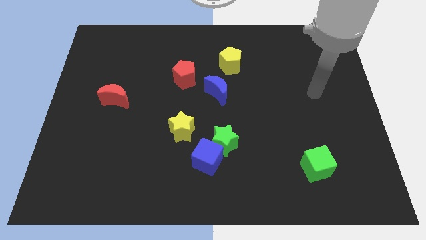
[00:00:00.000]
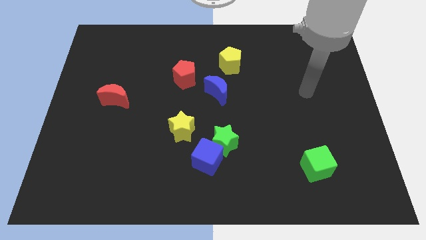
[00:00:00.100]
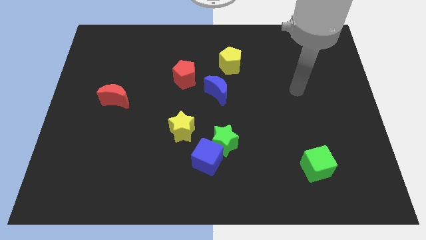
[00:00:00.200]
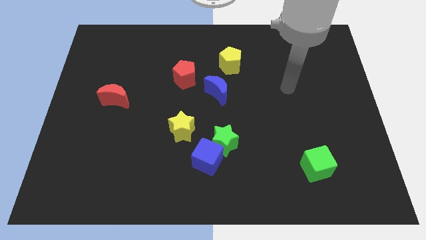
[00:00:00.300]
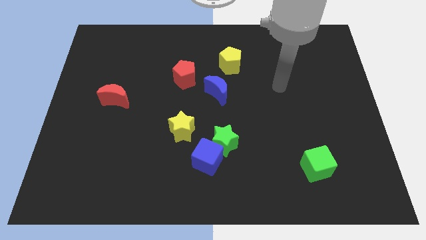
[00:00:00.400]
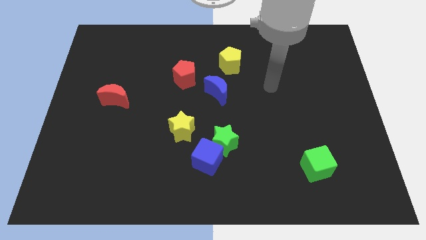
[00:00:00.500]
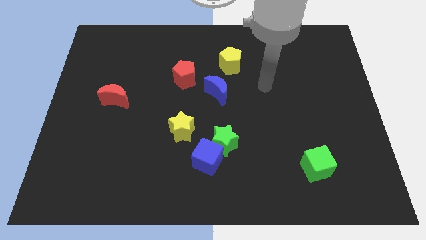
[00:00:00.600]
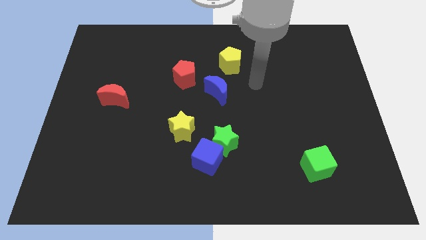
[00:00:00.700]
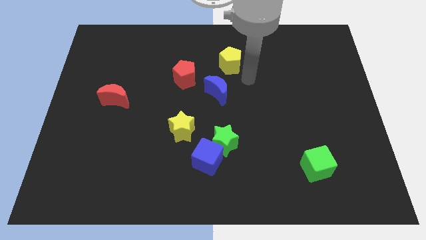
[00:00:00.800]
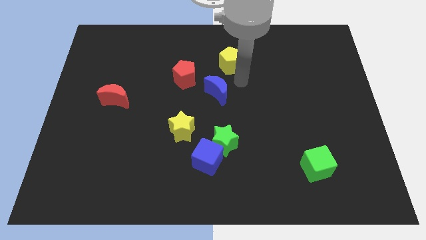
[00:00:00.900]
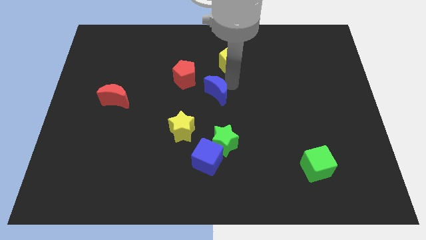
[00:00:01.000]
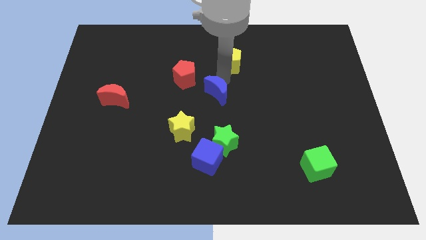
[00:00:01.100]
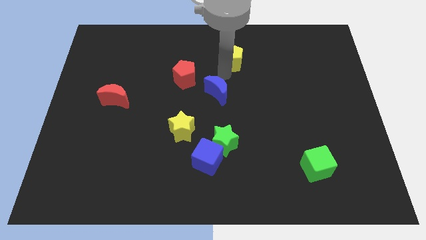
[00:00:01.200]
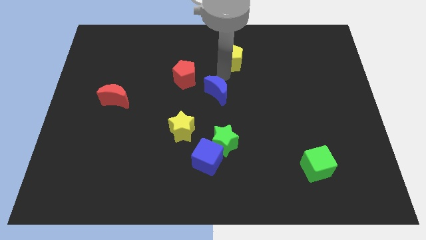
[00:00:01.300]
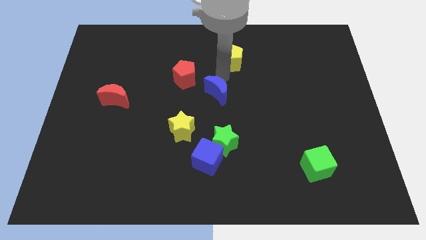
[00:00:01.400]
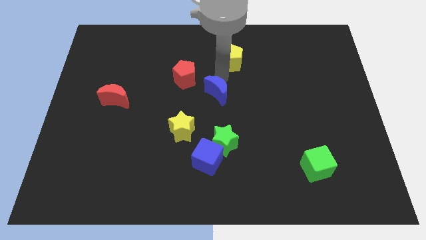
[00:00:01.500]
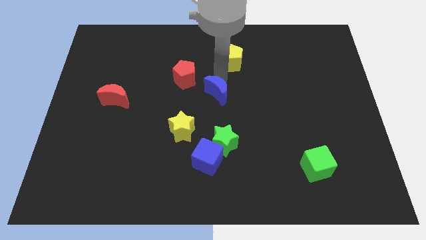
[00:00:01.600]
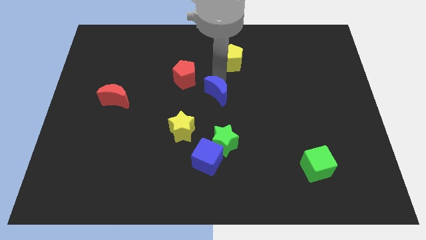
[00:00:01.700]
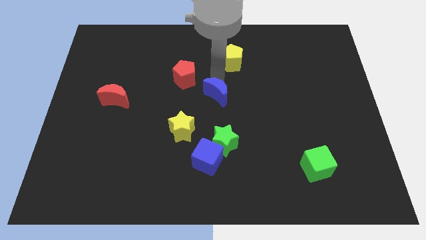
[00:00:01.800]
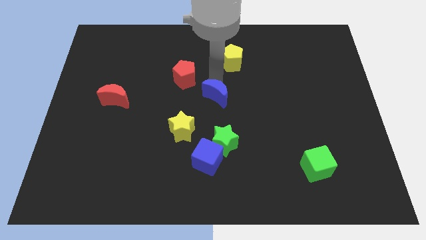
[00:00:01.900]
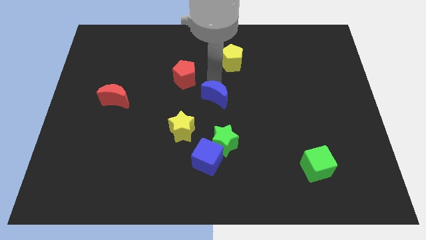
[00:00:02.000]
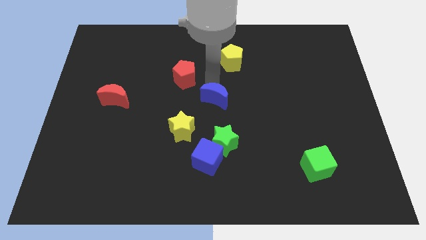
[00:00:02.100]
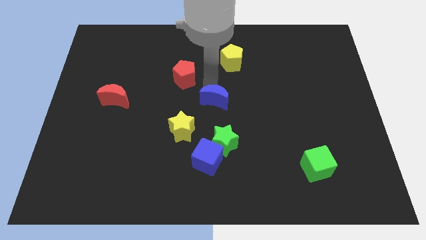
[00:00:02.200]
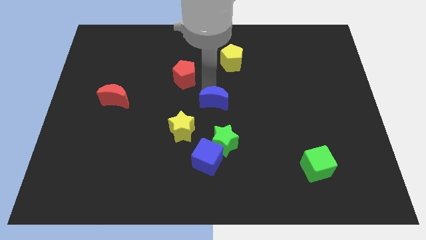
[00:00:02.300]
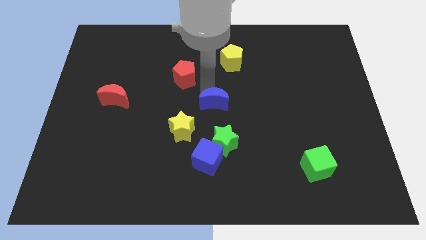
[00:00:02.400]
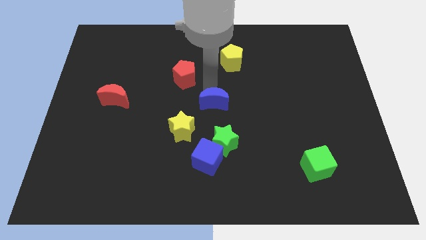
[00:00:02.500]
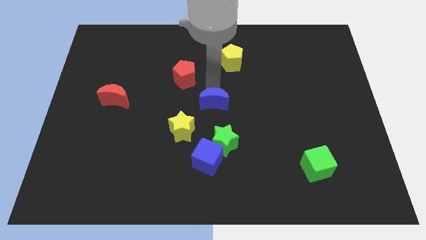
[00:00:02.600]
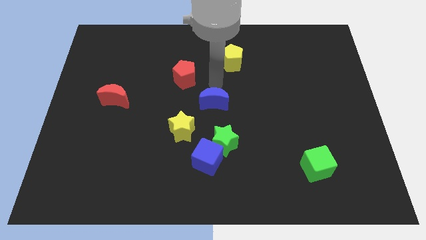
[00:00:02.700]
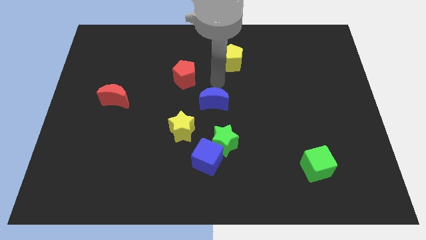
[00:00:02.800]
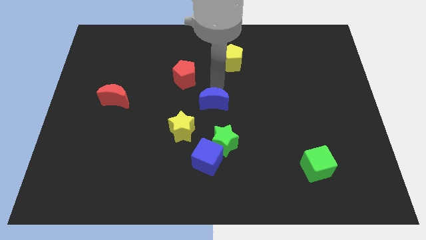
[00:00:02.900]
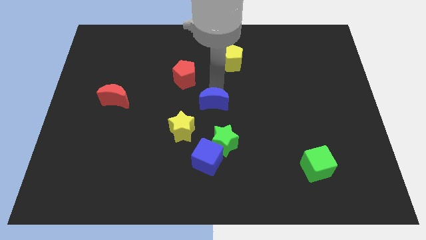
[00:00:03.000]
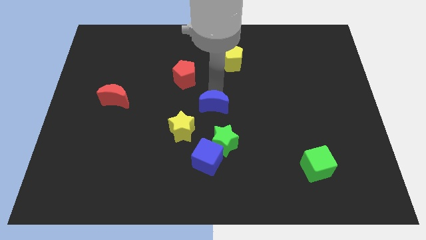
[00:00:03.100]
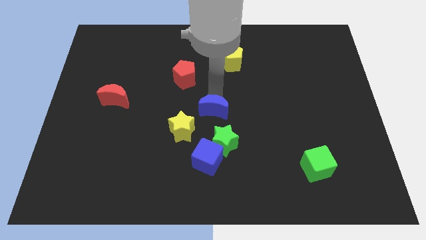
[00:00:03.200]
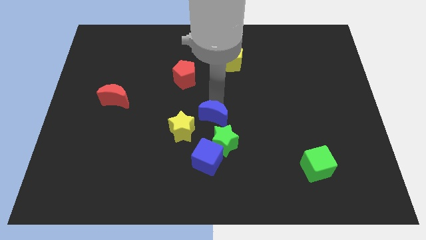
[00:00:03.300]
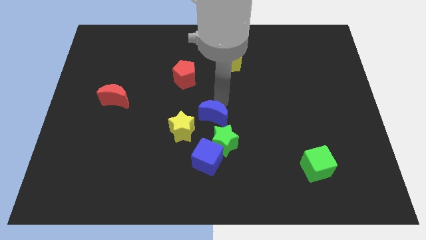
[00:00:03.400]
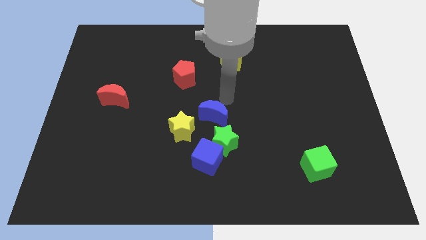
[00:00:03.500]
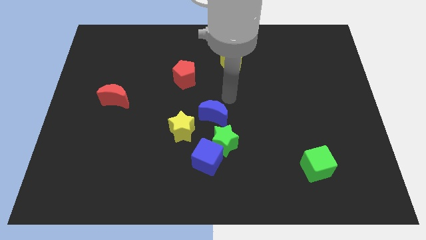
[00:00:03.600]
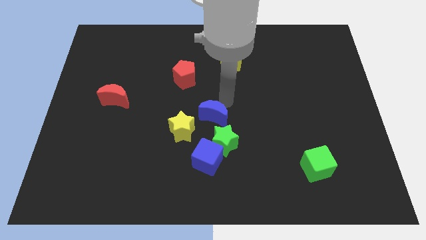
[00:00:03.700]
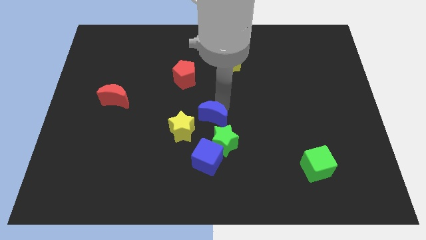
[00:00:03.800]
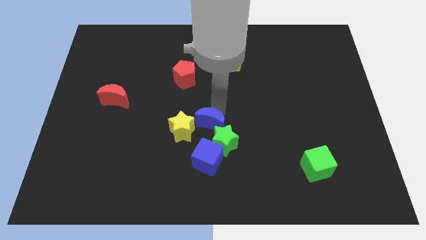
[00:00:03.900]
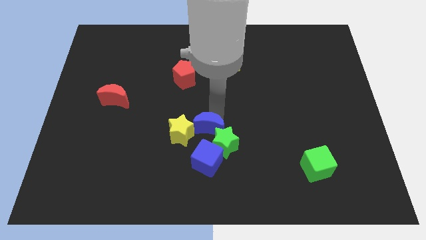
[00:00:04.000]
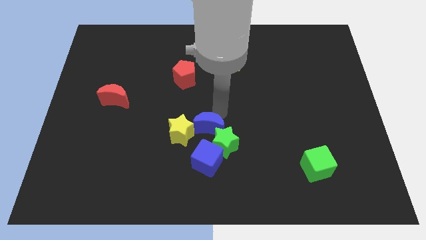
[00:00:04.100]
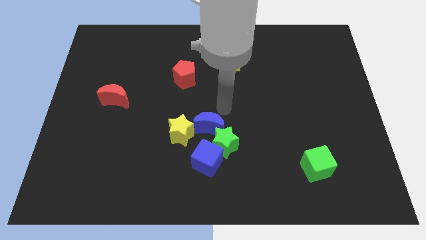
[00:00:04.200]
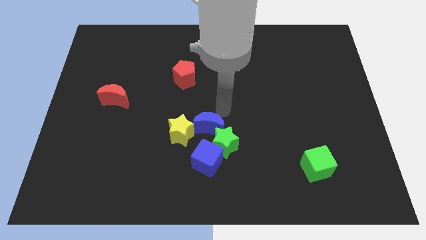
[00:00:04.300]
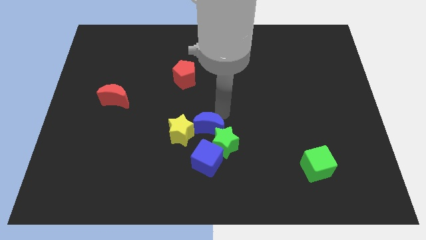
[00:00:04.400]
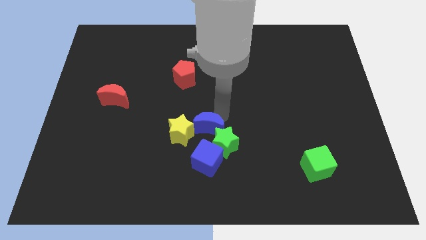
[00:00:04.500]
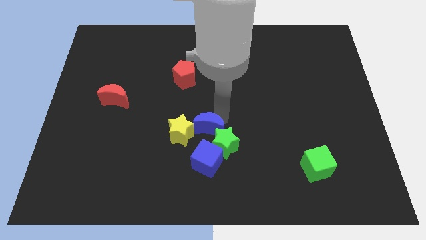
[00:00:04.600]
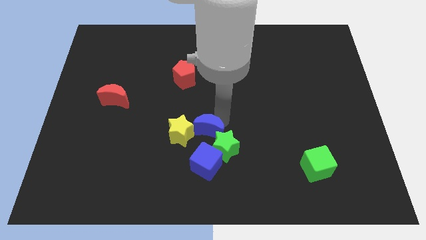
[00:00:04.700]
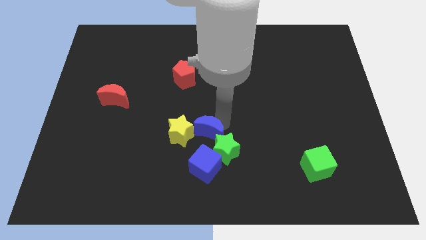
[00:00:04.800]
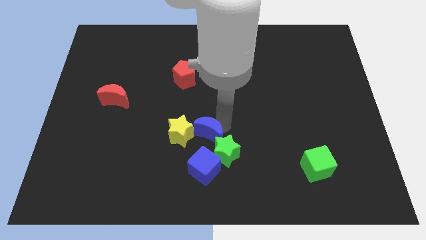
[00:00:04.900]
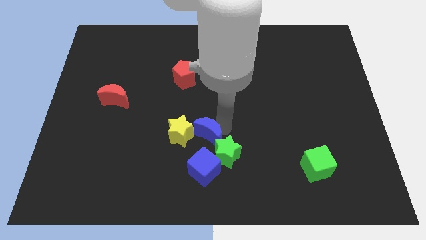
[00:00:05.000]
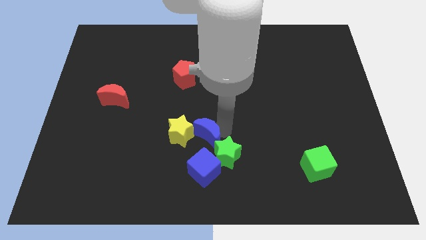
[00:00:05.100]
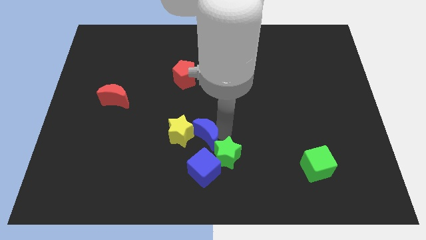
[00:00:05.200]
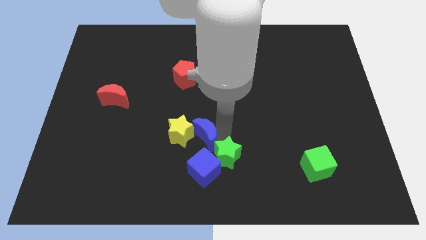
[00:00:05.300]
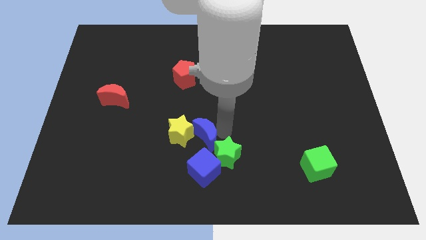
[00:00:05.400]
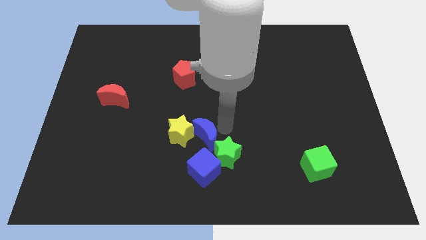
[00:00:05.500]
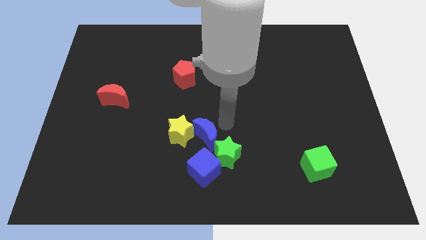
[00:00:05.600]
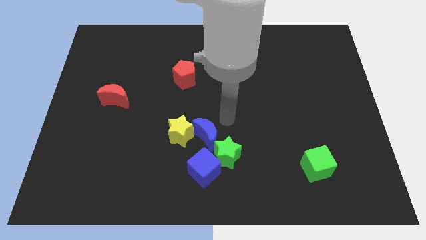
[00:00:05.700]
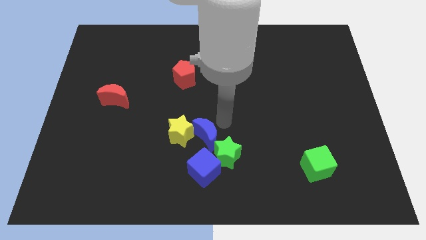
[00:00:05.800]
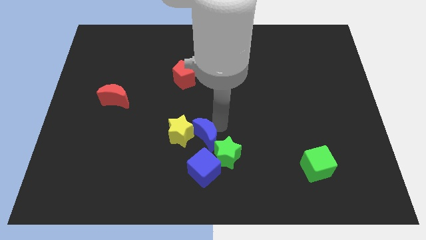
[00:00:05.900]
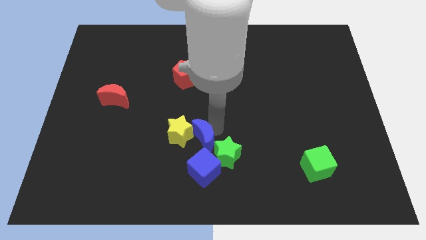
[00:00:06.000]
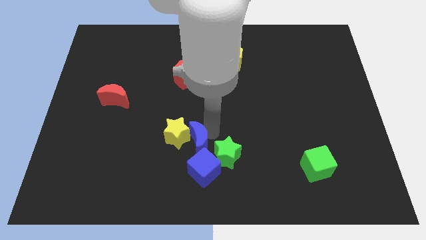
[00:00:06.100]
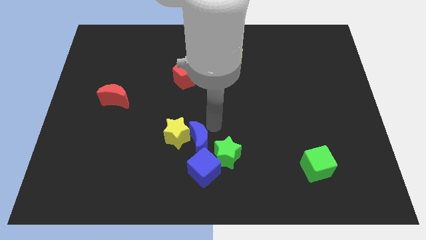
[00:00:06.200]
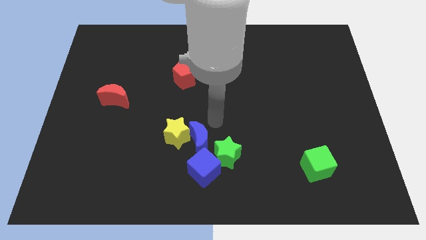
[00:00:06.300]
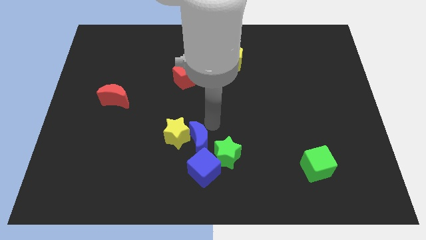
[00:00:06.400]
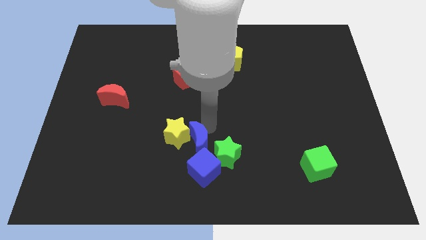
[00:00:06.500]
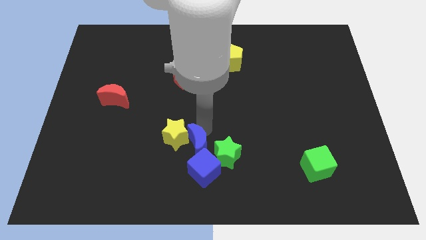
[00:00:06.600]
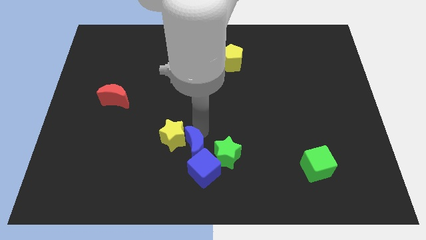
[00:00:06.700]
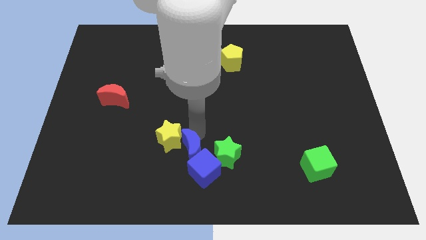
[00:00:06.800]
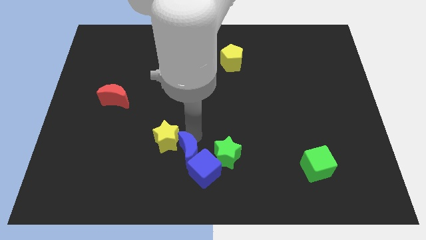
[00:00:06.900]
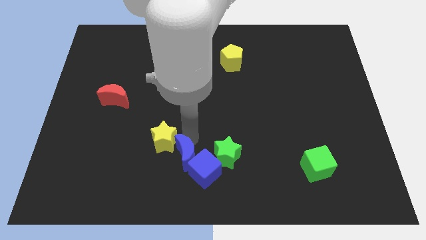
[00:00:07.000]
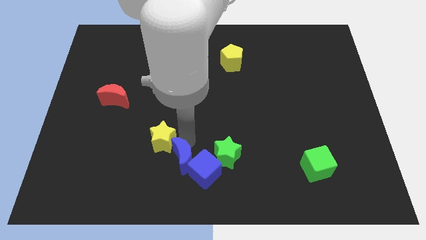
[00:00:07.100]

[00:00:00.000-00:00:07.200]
move the blue moon to the bottom side of the yellow star
